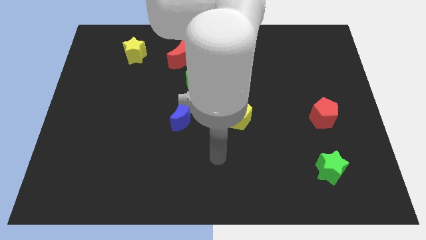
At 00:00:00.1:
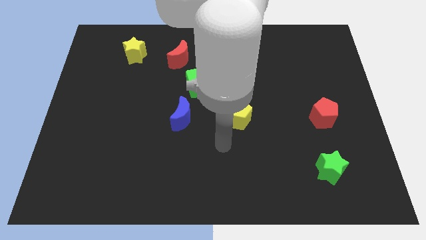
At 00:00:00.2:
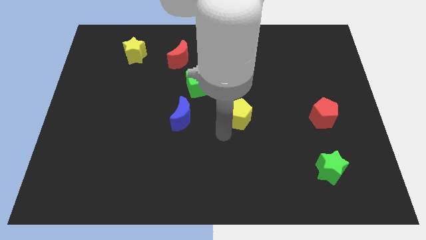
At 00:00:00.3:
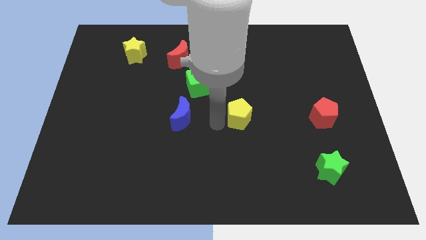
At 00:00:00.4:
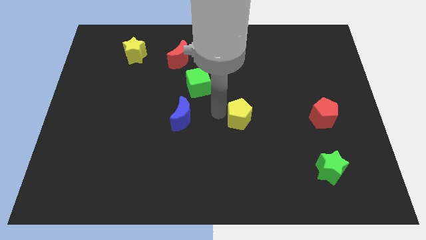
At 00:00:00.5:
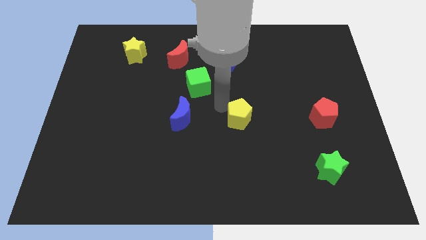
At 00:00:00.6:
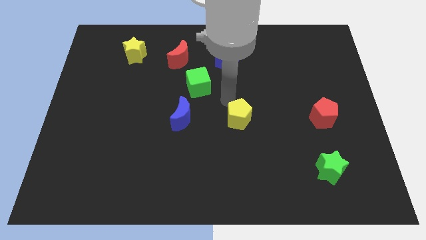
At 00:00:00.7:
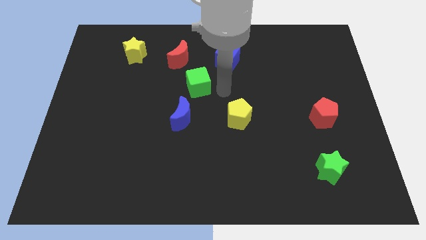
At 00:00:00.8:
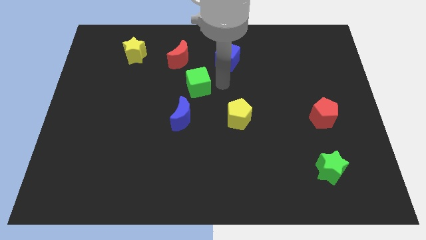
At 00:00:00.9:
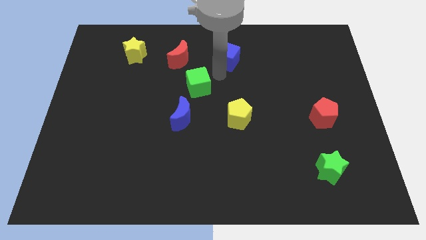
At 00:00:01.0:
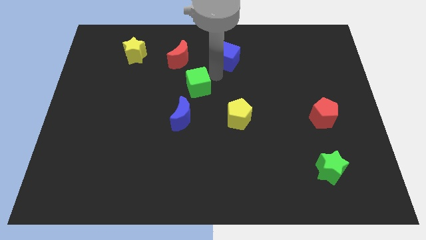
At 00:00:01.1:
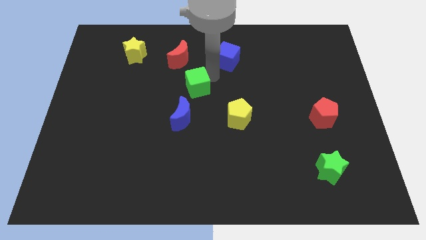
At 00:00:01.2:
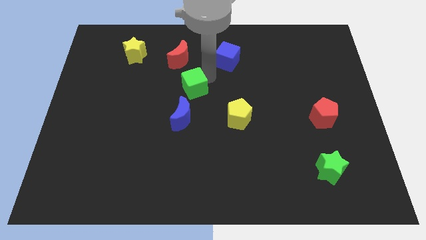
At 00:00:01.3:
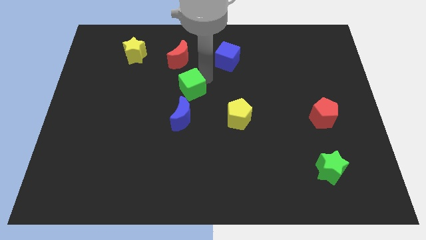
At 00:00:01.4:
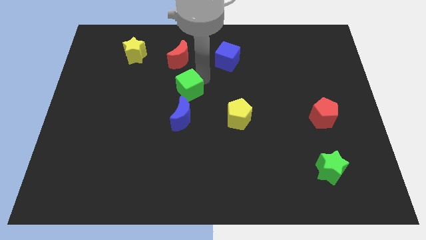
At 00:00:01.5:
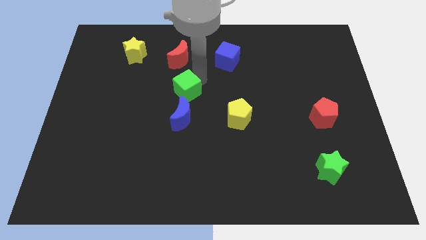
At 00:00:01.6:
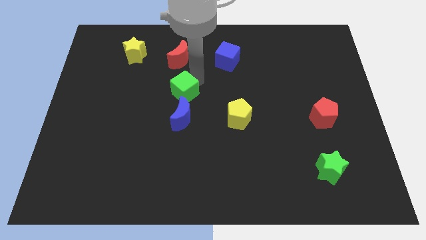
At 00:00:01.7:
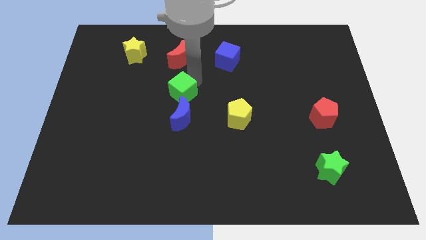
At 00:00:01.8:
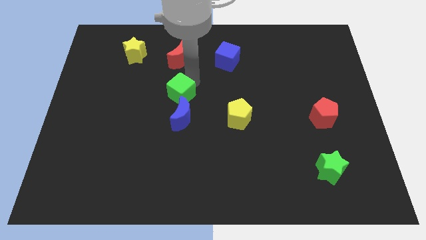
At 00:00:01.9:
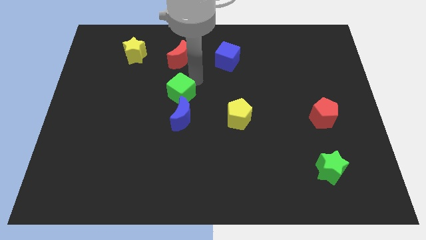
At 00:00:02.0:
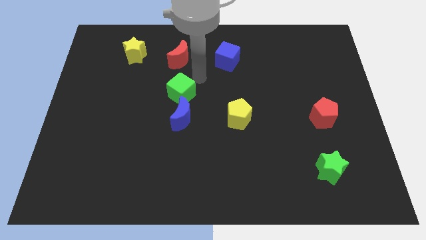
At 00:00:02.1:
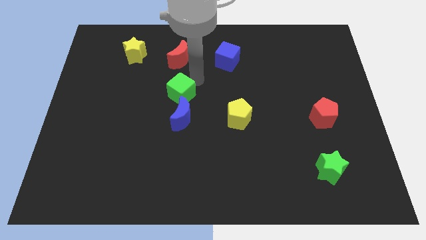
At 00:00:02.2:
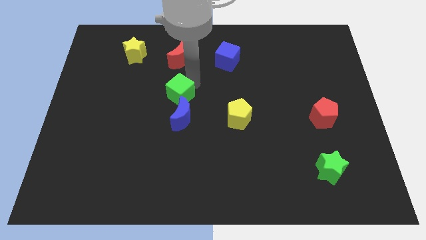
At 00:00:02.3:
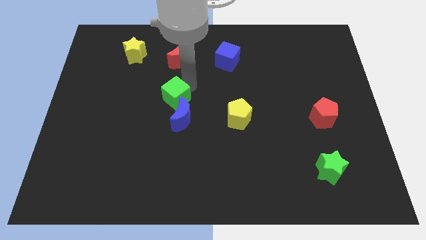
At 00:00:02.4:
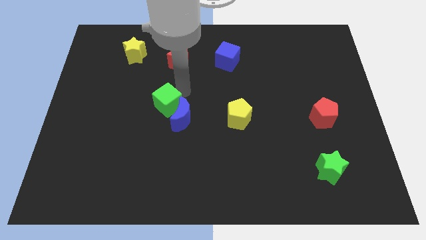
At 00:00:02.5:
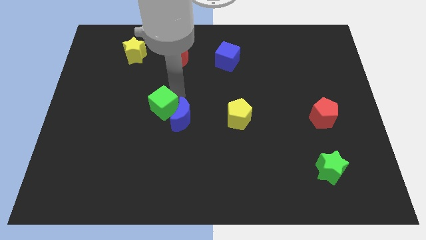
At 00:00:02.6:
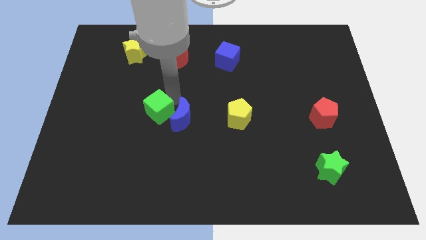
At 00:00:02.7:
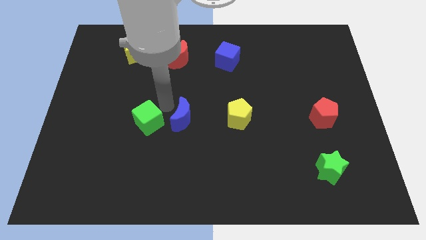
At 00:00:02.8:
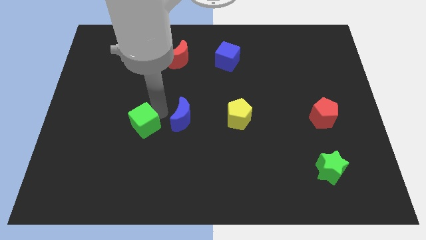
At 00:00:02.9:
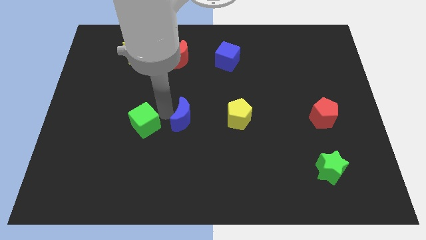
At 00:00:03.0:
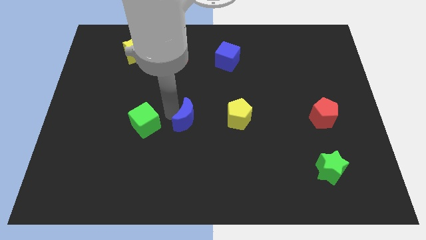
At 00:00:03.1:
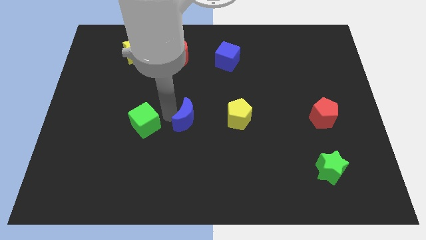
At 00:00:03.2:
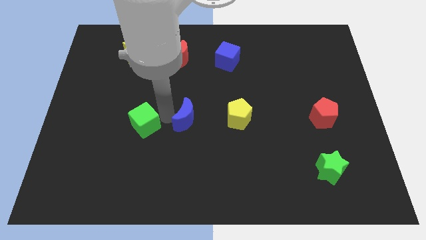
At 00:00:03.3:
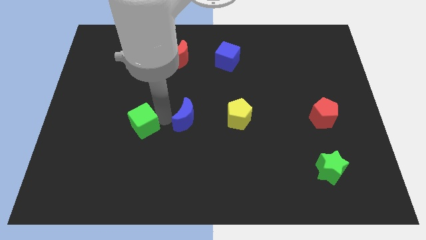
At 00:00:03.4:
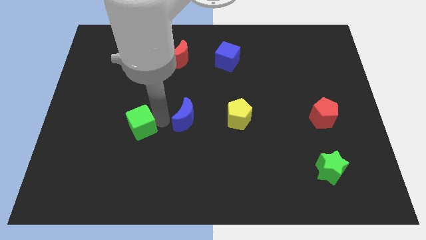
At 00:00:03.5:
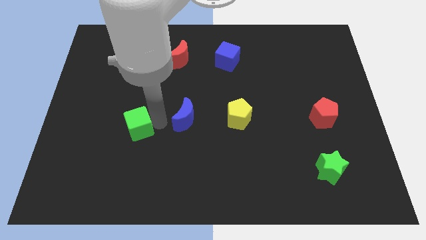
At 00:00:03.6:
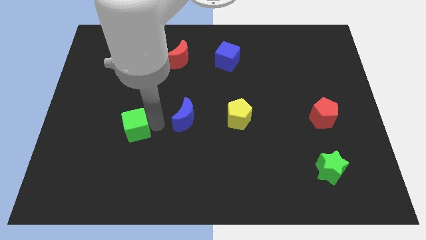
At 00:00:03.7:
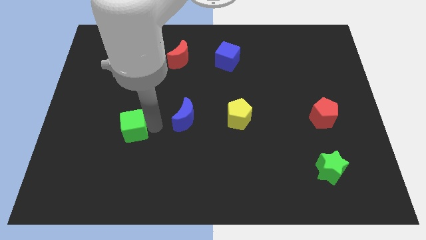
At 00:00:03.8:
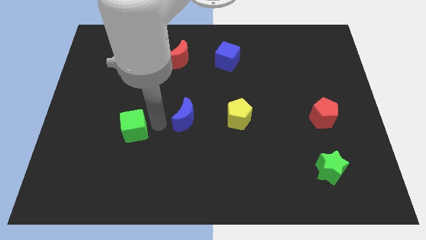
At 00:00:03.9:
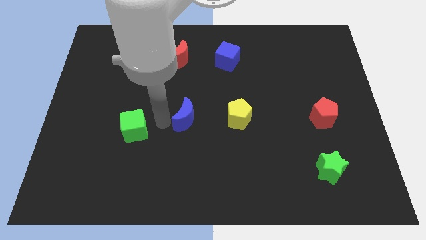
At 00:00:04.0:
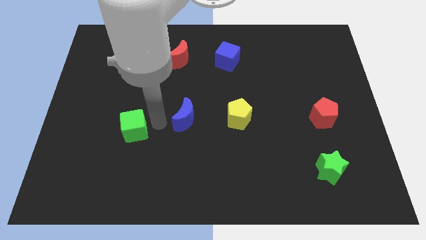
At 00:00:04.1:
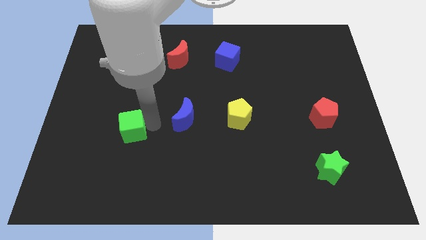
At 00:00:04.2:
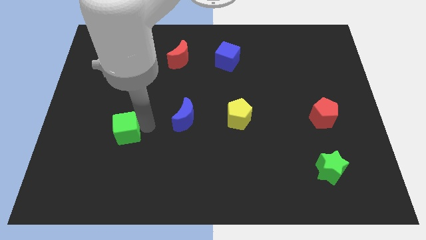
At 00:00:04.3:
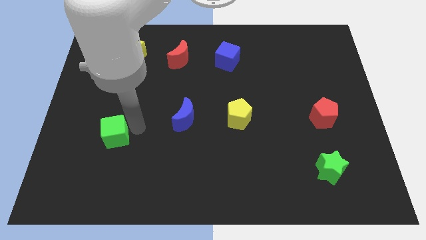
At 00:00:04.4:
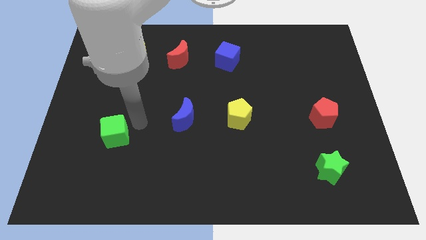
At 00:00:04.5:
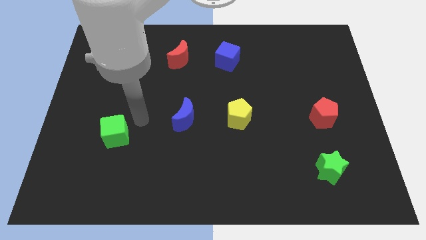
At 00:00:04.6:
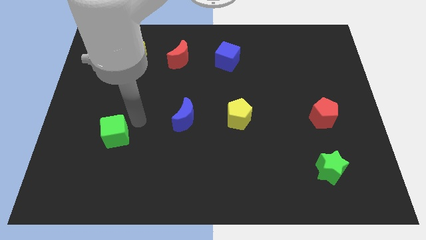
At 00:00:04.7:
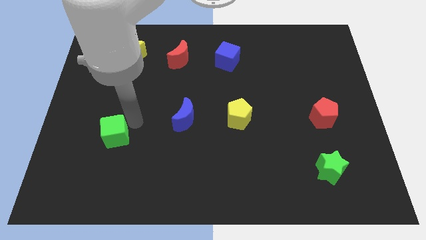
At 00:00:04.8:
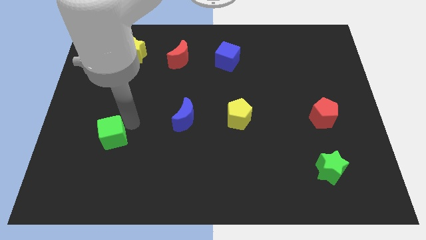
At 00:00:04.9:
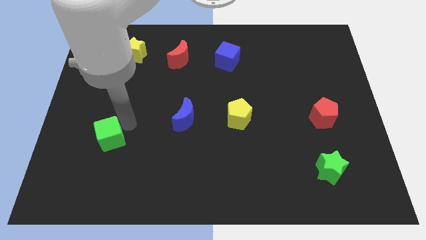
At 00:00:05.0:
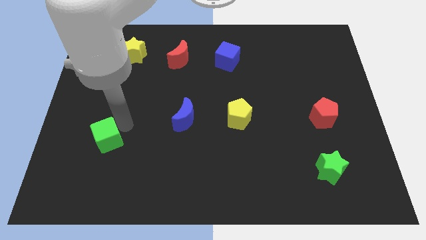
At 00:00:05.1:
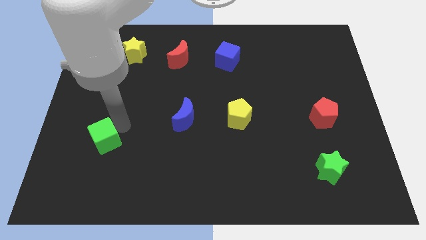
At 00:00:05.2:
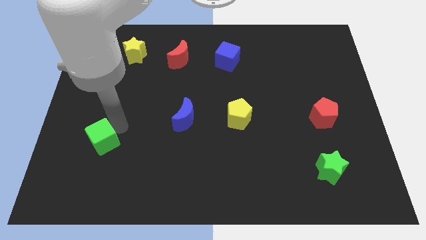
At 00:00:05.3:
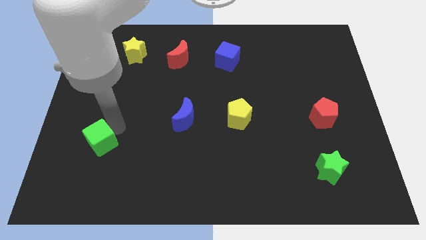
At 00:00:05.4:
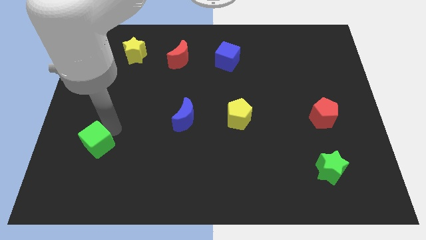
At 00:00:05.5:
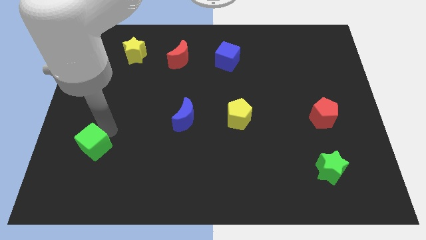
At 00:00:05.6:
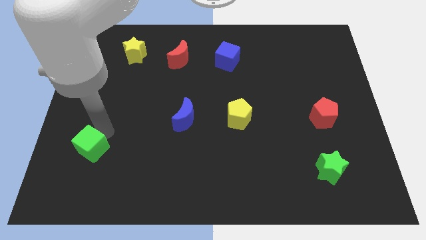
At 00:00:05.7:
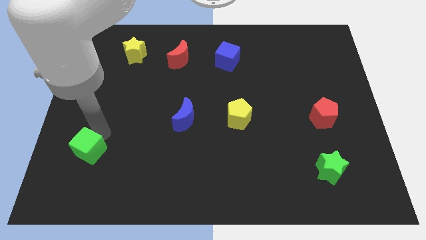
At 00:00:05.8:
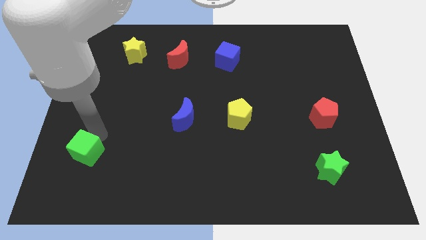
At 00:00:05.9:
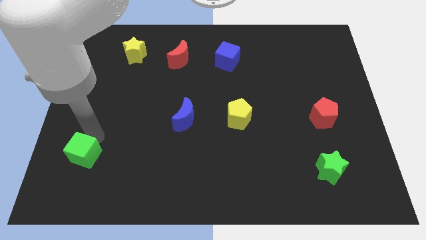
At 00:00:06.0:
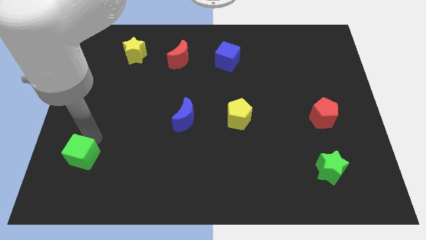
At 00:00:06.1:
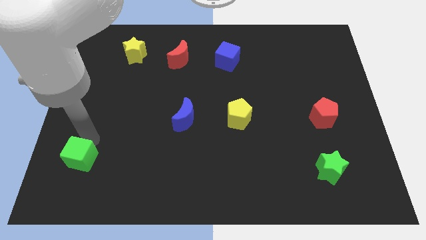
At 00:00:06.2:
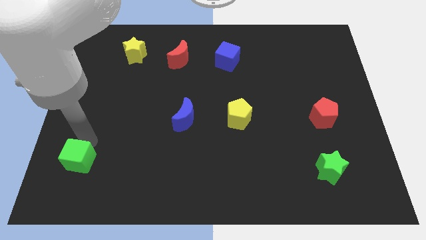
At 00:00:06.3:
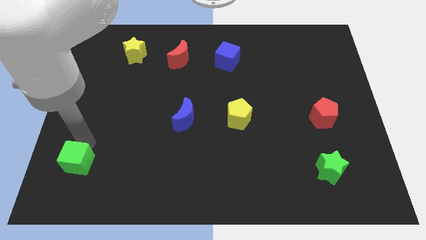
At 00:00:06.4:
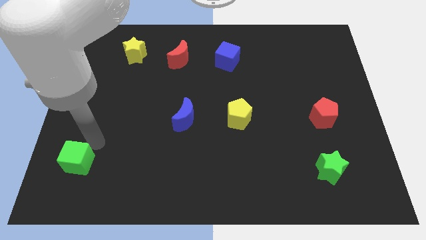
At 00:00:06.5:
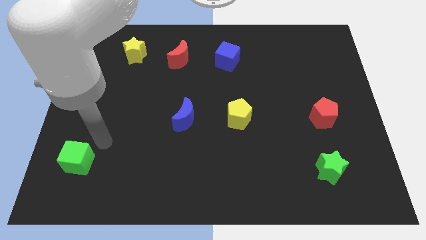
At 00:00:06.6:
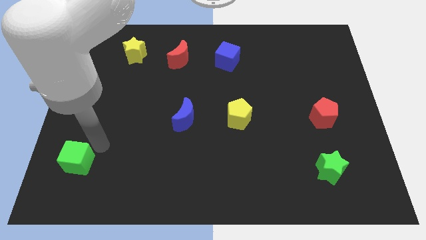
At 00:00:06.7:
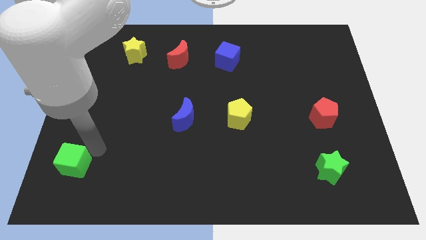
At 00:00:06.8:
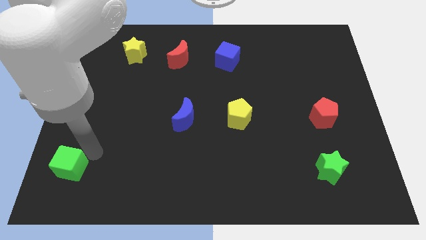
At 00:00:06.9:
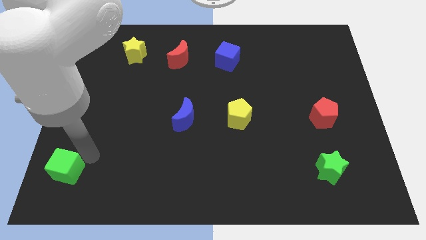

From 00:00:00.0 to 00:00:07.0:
put the green cube to the bottom left of the board

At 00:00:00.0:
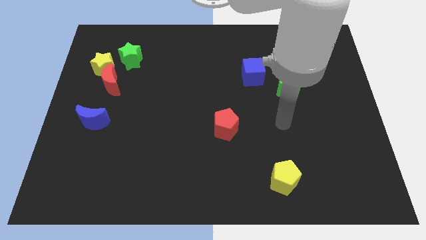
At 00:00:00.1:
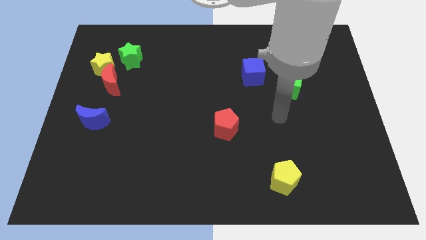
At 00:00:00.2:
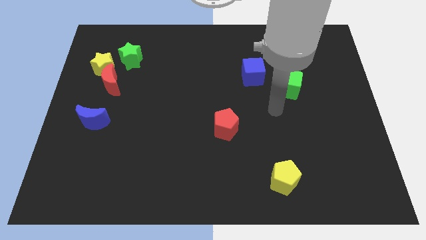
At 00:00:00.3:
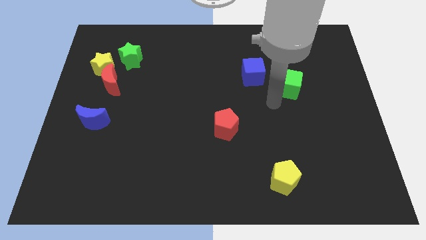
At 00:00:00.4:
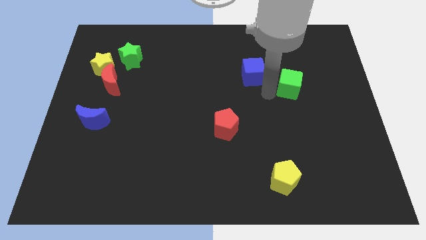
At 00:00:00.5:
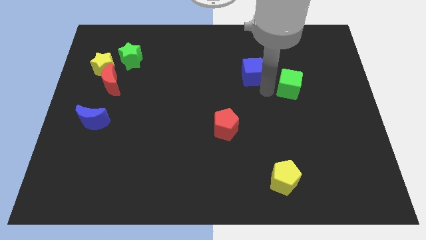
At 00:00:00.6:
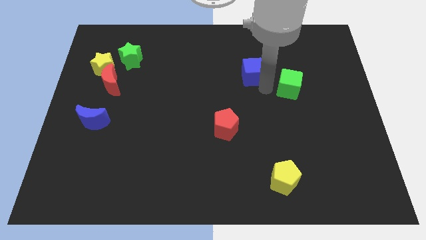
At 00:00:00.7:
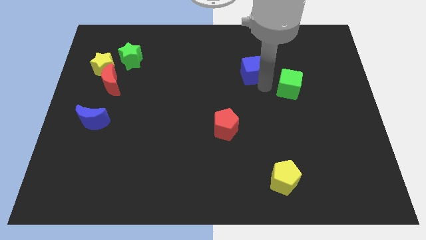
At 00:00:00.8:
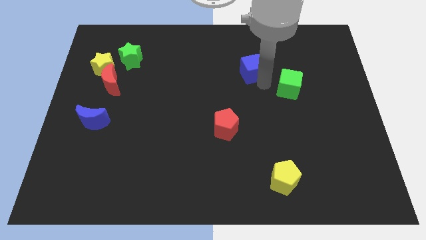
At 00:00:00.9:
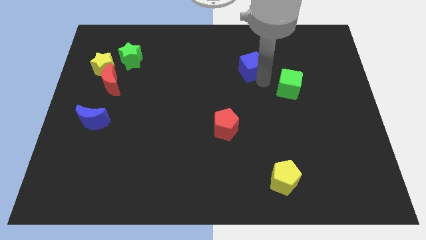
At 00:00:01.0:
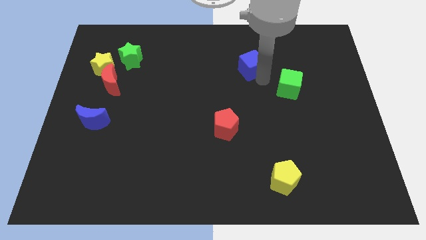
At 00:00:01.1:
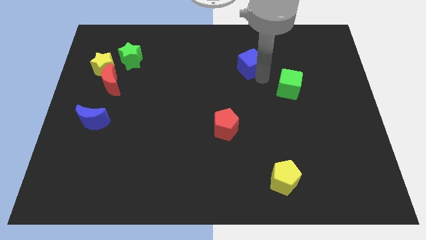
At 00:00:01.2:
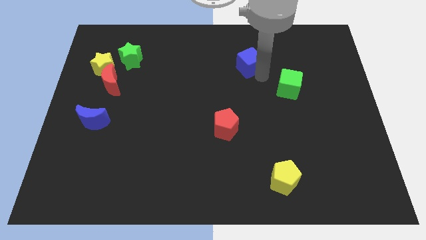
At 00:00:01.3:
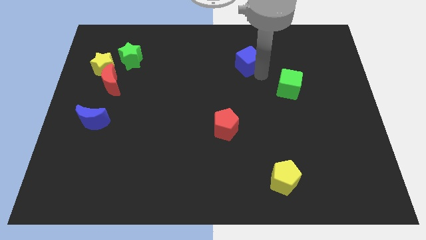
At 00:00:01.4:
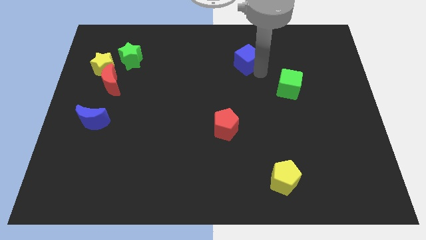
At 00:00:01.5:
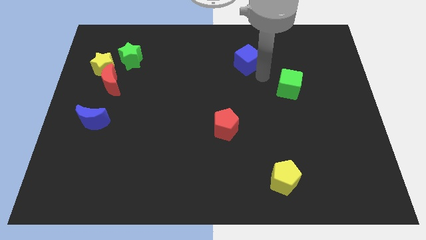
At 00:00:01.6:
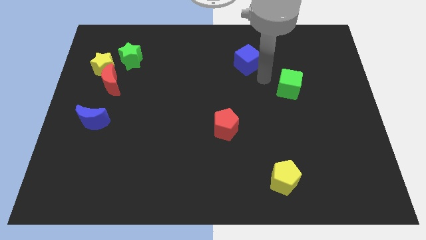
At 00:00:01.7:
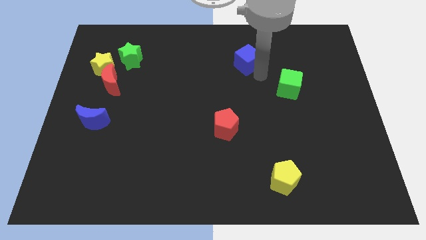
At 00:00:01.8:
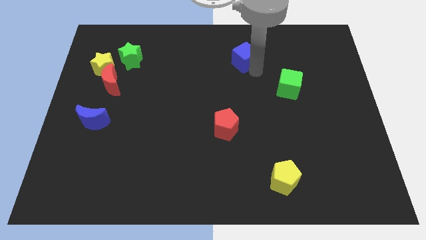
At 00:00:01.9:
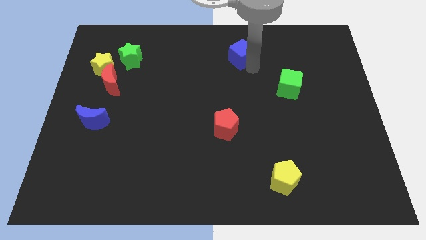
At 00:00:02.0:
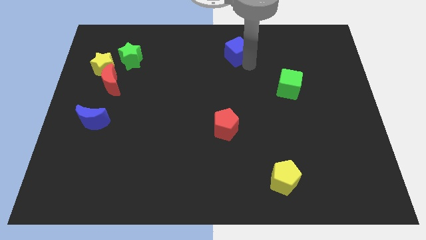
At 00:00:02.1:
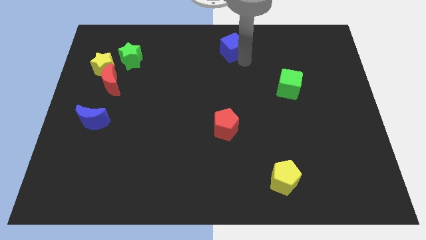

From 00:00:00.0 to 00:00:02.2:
push the blue cube to the top
